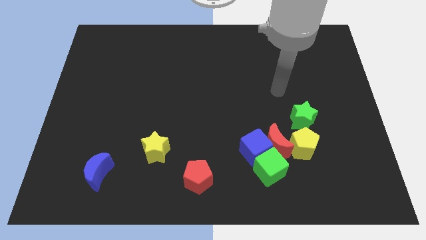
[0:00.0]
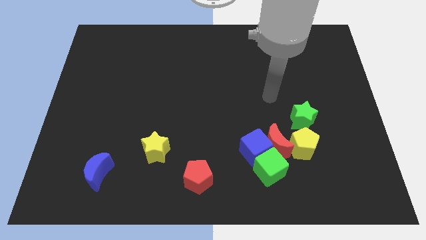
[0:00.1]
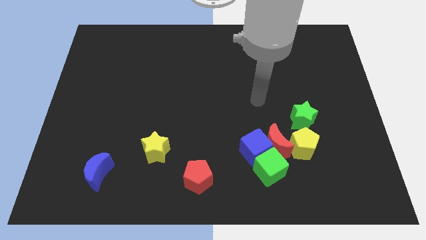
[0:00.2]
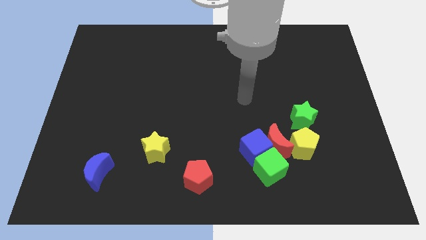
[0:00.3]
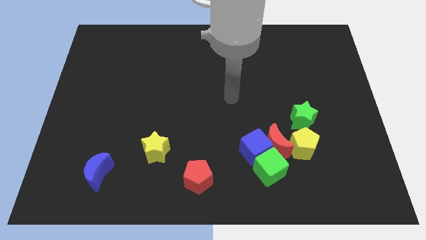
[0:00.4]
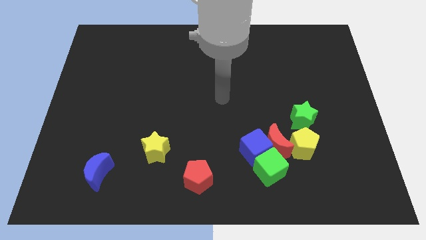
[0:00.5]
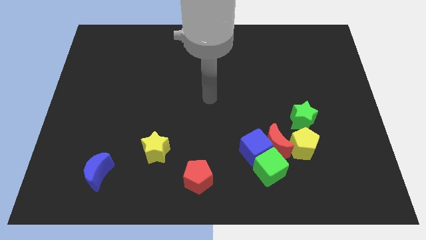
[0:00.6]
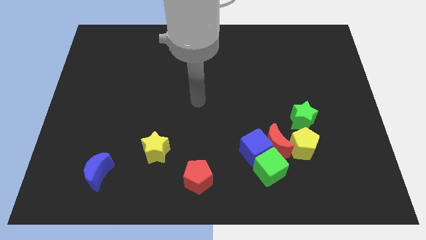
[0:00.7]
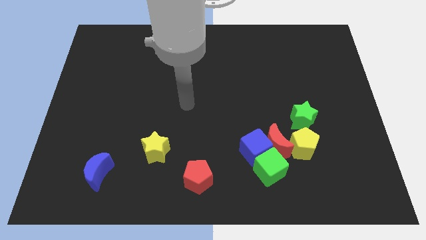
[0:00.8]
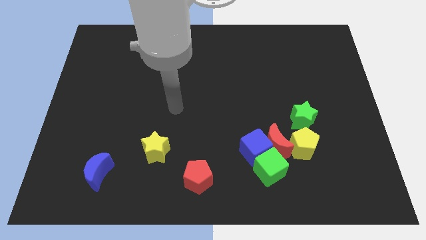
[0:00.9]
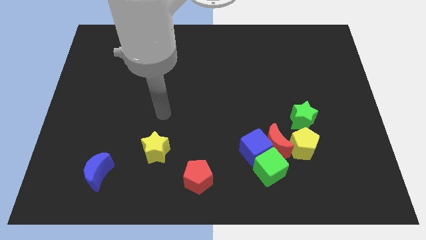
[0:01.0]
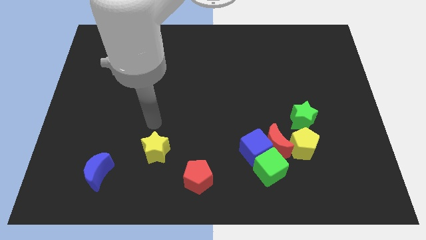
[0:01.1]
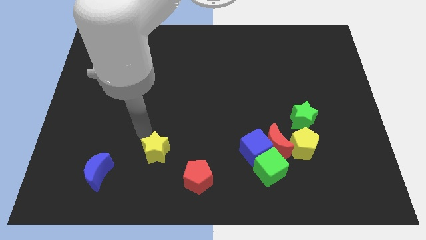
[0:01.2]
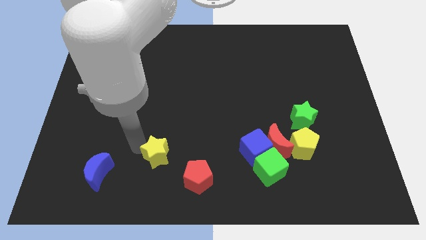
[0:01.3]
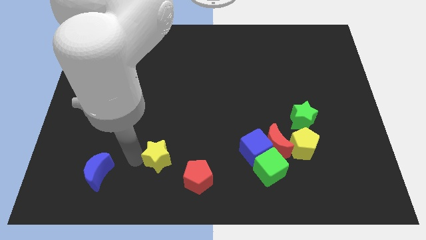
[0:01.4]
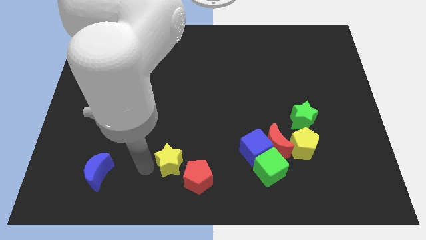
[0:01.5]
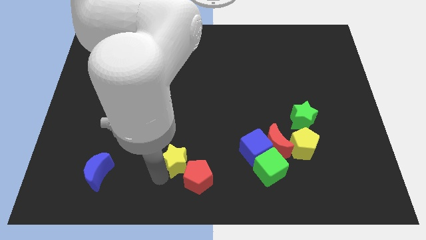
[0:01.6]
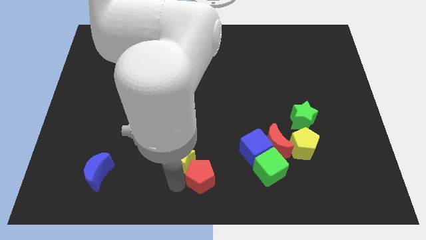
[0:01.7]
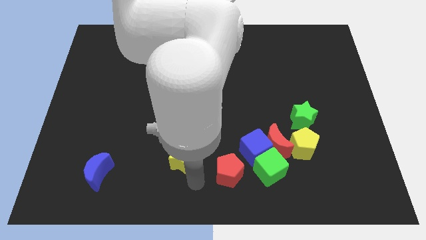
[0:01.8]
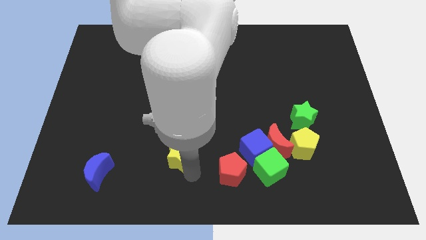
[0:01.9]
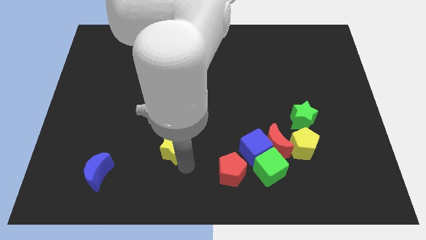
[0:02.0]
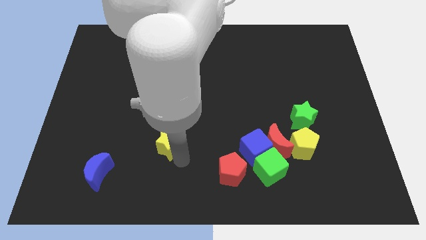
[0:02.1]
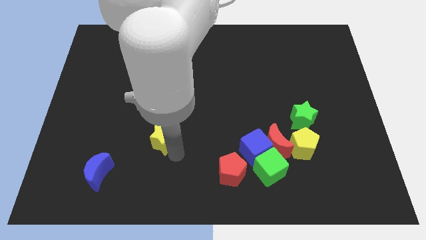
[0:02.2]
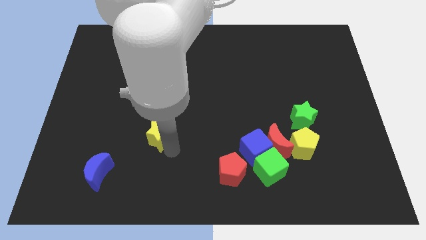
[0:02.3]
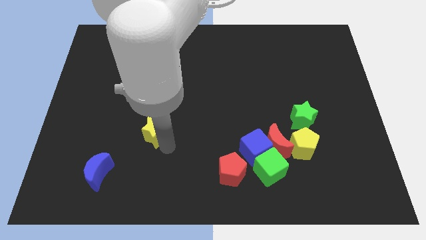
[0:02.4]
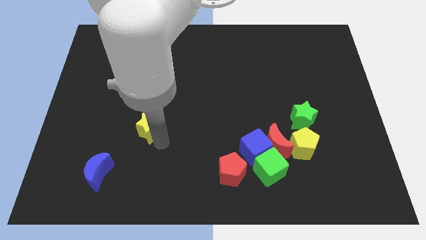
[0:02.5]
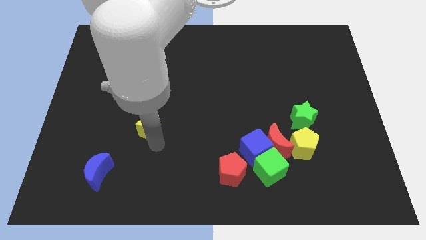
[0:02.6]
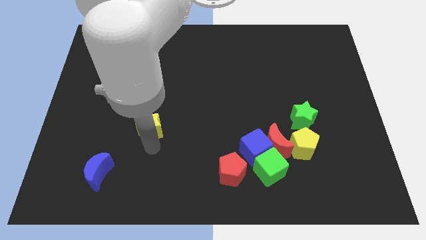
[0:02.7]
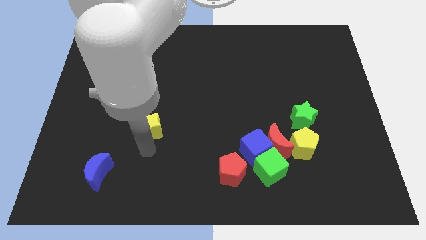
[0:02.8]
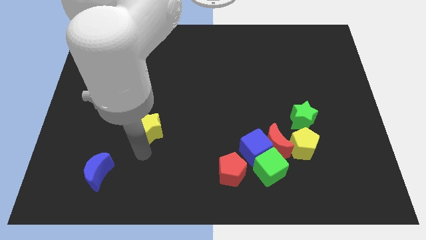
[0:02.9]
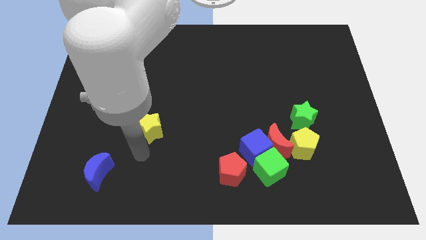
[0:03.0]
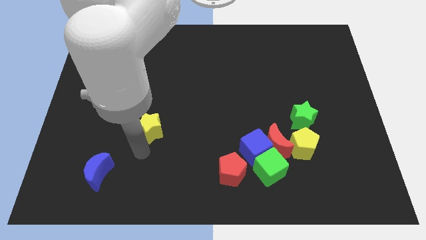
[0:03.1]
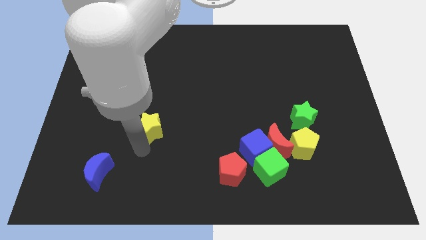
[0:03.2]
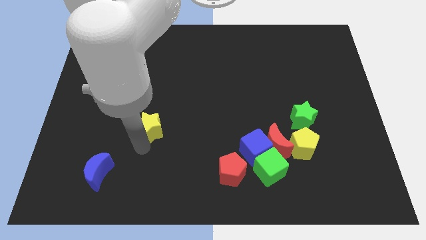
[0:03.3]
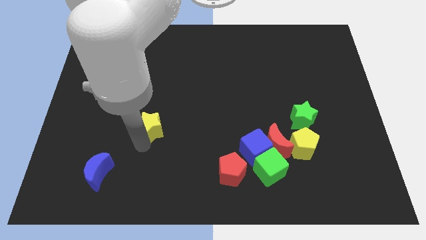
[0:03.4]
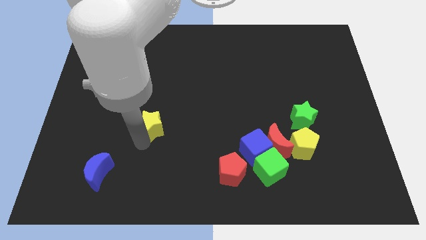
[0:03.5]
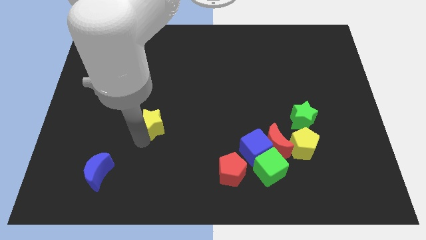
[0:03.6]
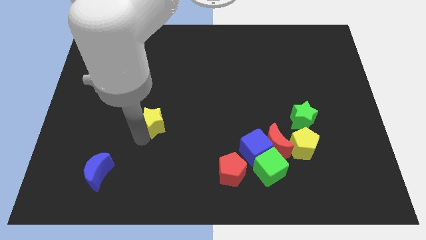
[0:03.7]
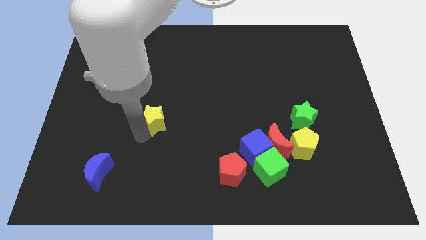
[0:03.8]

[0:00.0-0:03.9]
slightly push the yellow star up

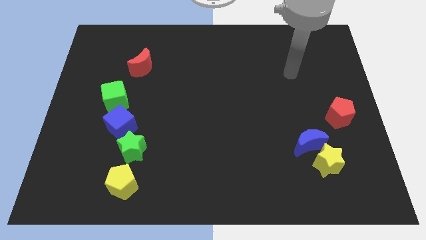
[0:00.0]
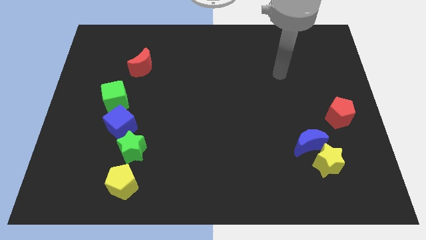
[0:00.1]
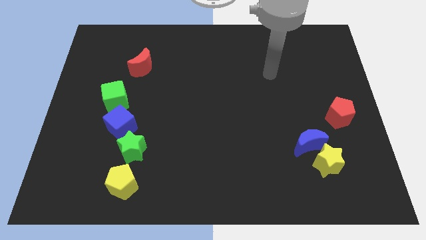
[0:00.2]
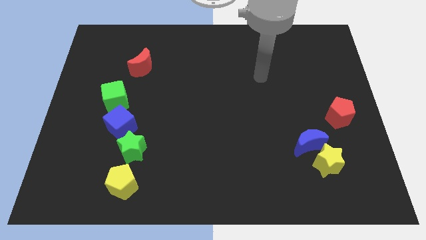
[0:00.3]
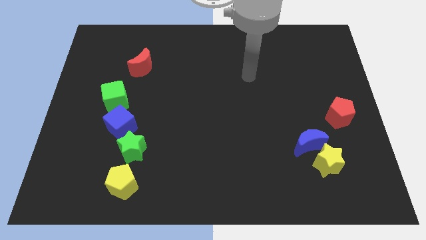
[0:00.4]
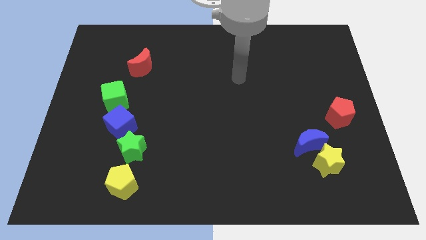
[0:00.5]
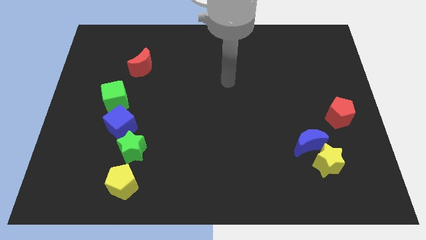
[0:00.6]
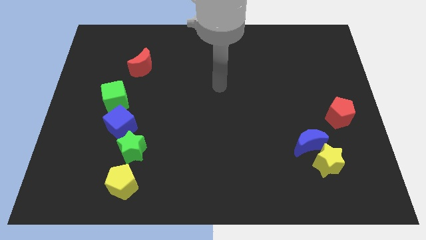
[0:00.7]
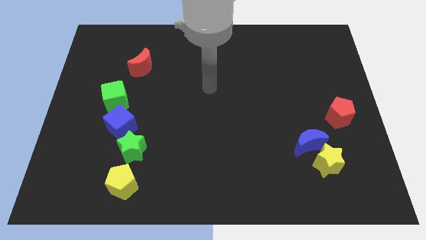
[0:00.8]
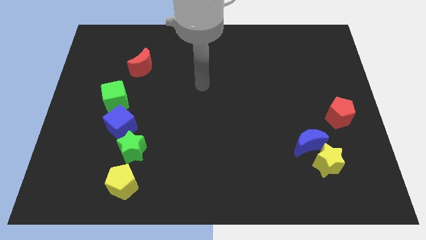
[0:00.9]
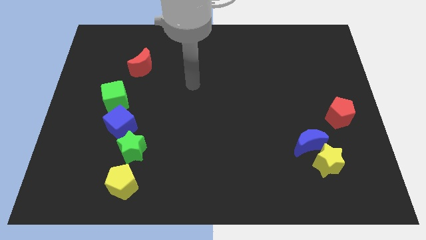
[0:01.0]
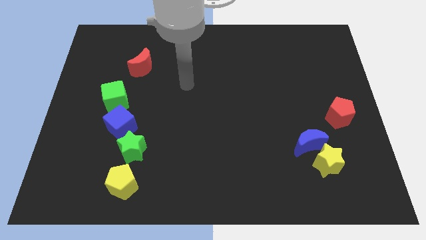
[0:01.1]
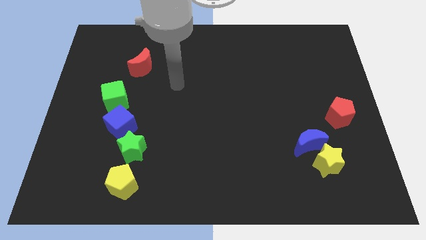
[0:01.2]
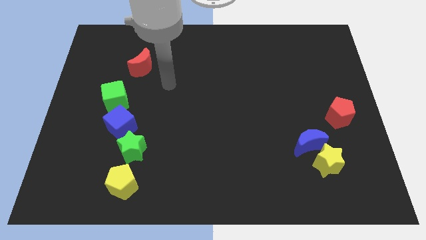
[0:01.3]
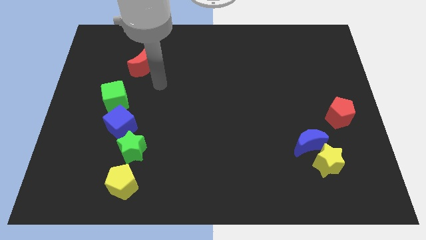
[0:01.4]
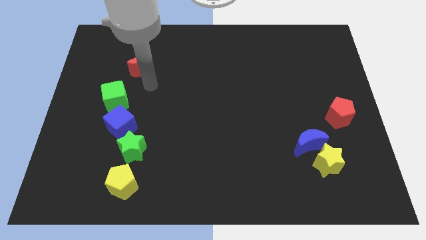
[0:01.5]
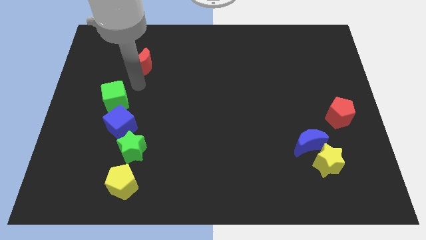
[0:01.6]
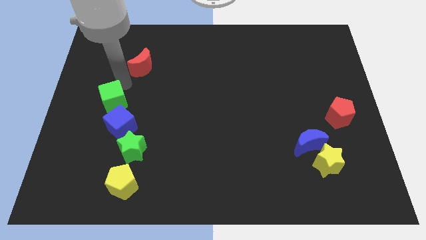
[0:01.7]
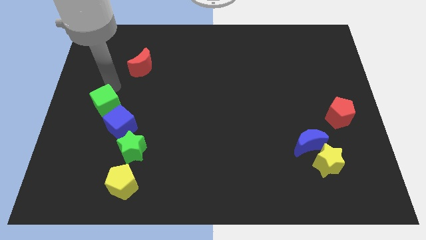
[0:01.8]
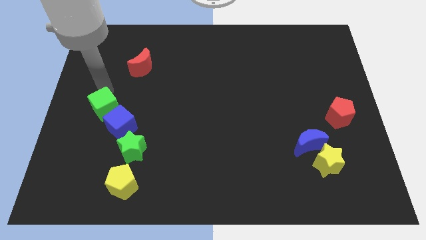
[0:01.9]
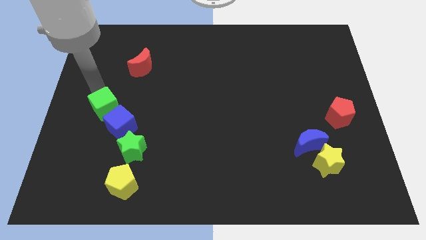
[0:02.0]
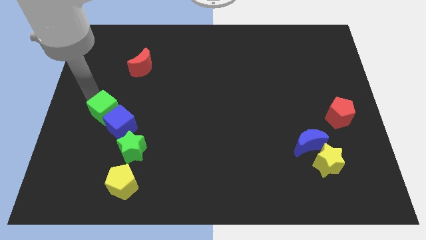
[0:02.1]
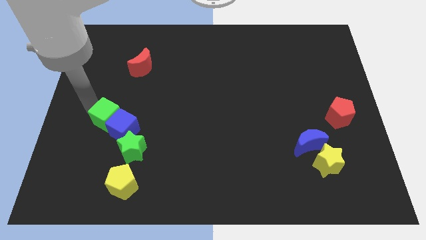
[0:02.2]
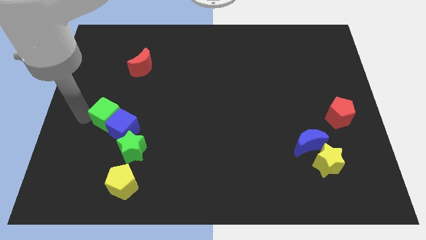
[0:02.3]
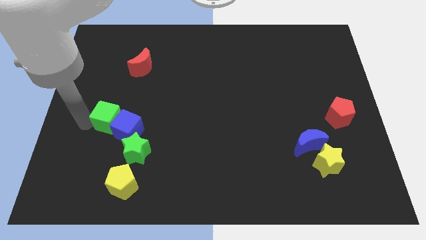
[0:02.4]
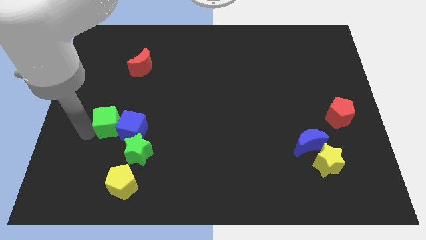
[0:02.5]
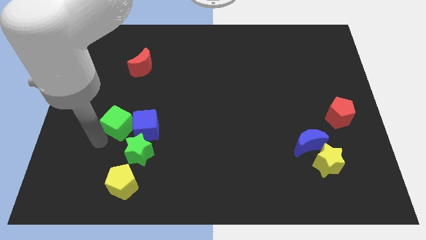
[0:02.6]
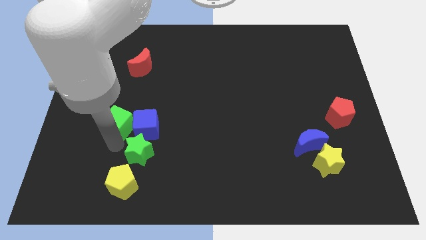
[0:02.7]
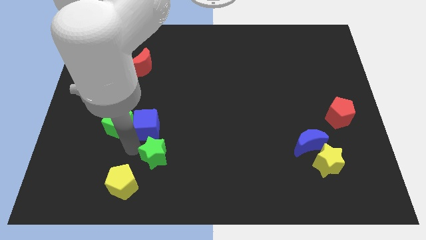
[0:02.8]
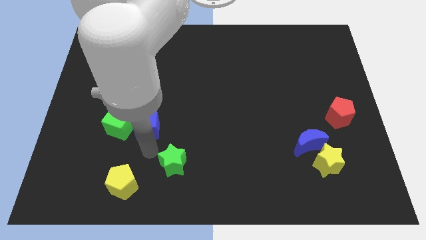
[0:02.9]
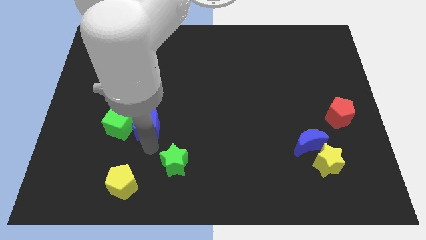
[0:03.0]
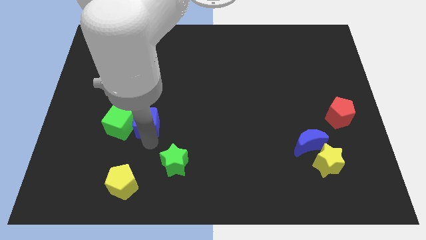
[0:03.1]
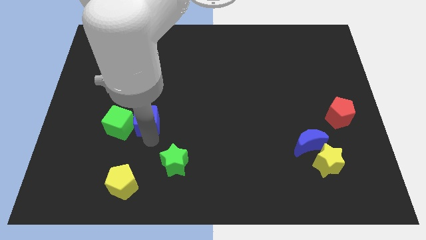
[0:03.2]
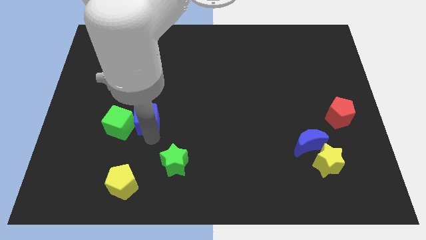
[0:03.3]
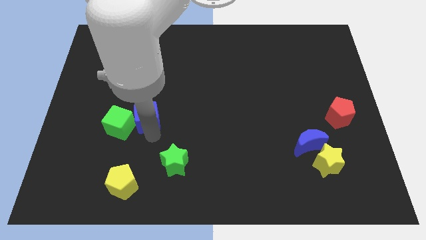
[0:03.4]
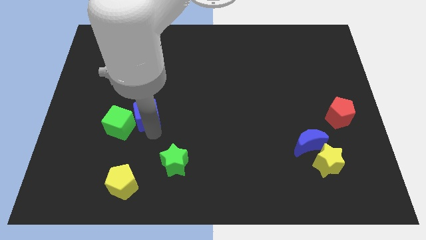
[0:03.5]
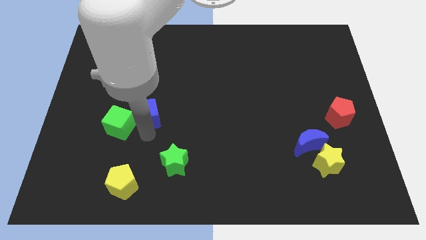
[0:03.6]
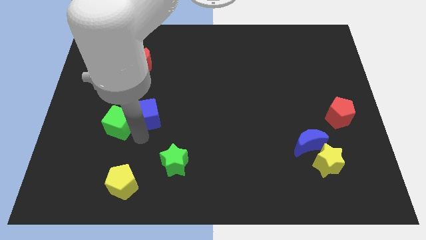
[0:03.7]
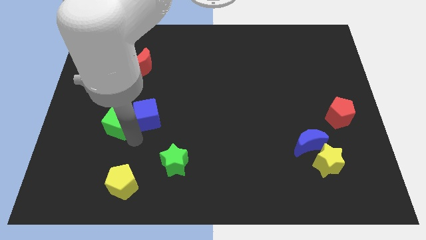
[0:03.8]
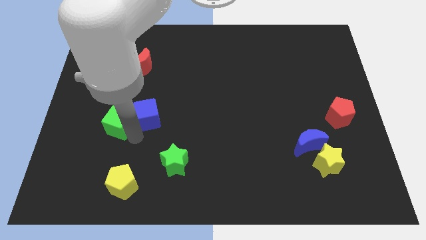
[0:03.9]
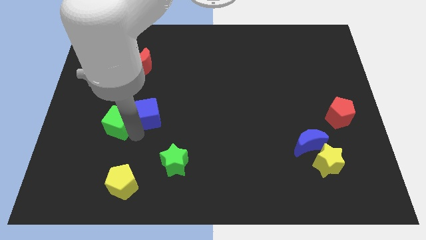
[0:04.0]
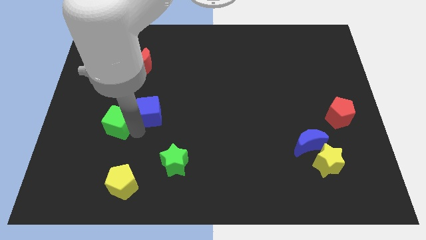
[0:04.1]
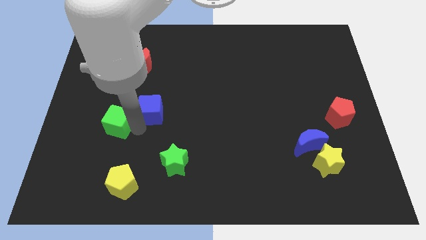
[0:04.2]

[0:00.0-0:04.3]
push the blue cube upwards and to the right diagonally a little bit
